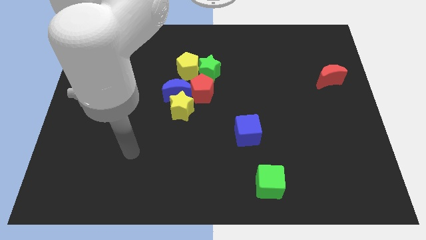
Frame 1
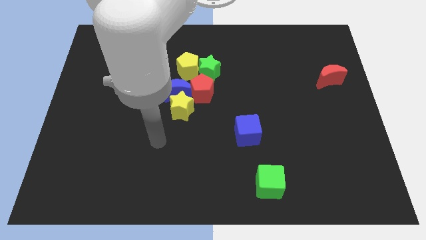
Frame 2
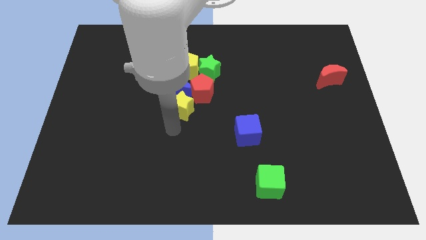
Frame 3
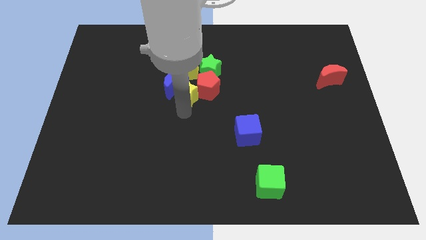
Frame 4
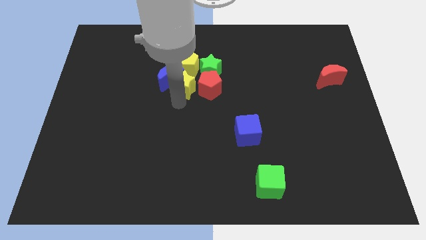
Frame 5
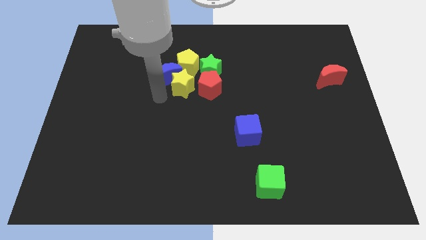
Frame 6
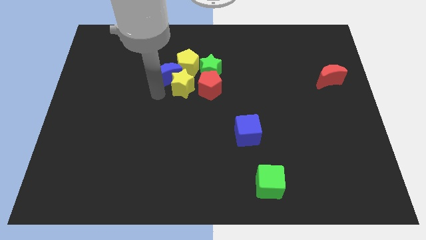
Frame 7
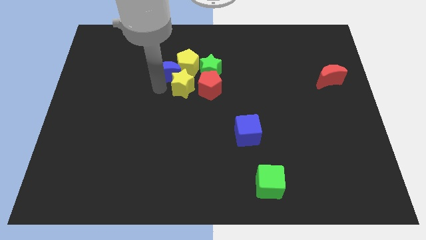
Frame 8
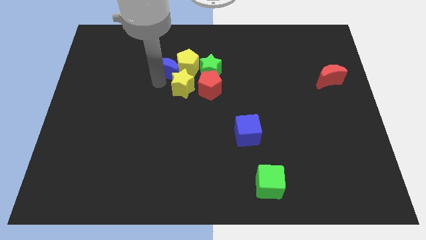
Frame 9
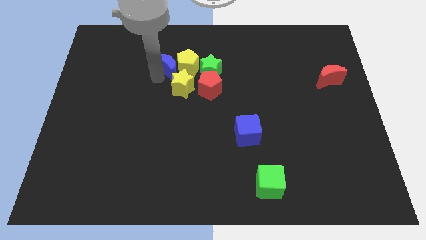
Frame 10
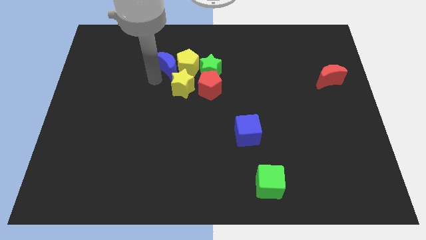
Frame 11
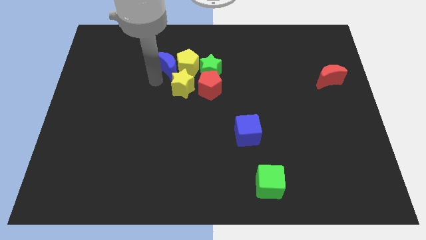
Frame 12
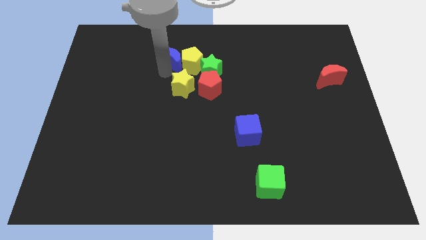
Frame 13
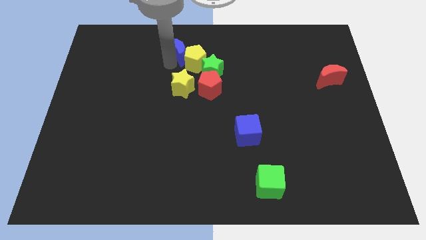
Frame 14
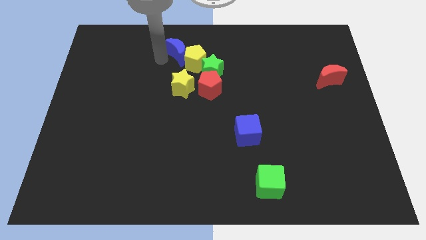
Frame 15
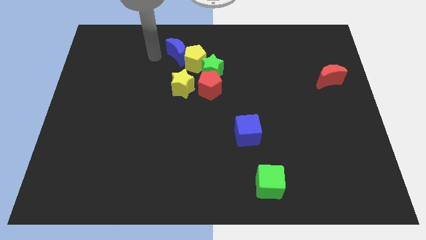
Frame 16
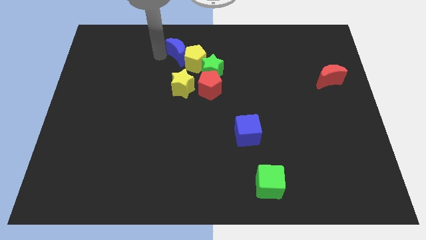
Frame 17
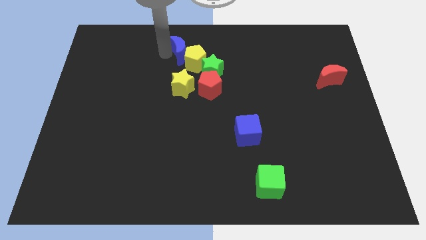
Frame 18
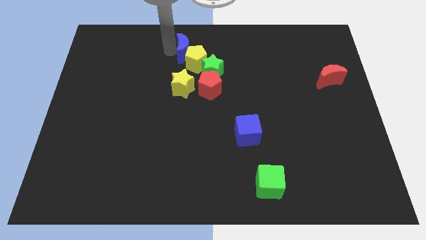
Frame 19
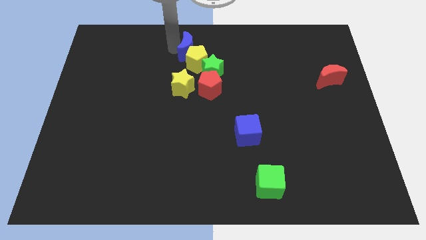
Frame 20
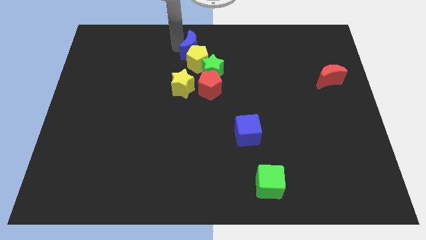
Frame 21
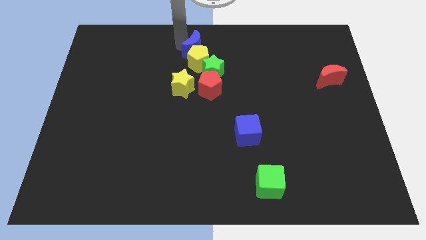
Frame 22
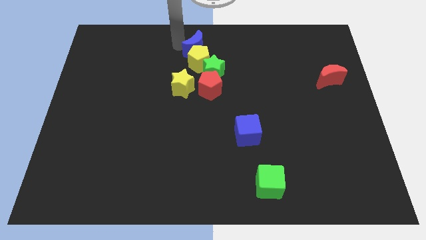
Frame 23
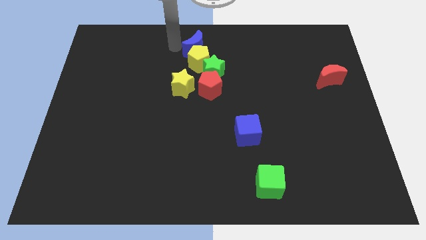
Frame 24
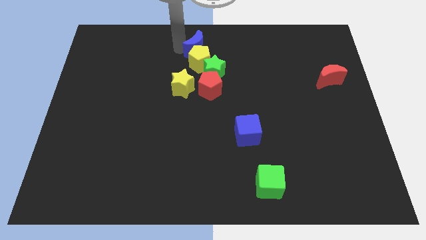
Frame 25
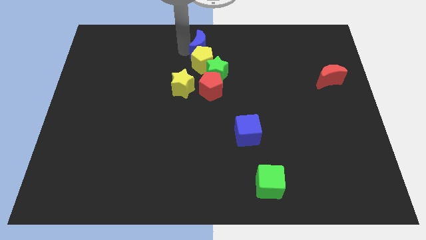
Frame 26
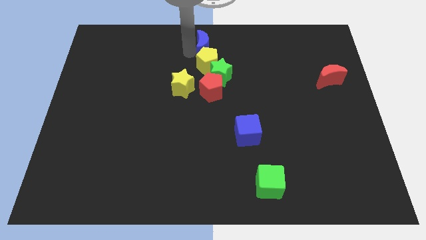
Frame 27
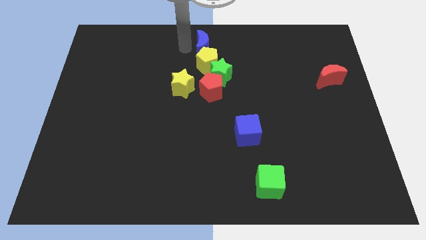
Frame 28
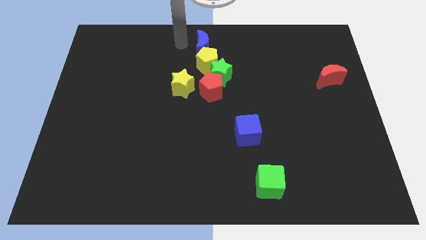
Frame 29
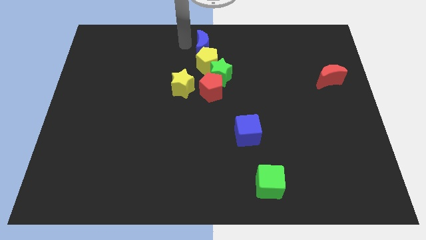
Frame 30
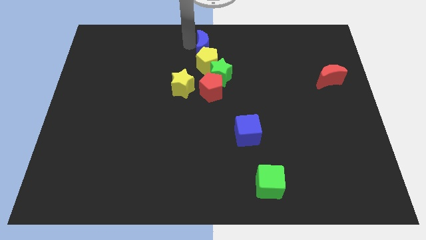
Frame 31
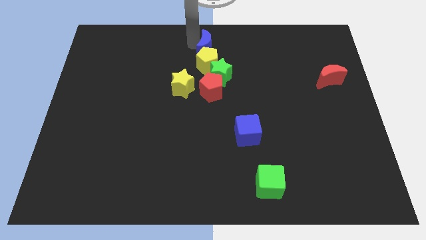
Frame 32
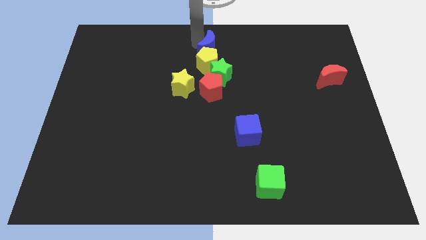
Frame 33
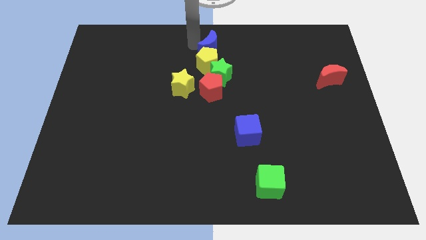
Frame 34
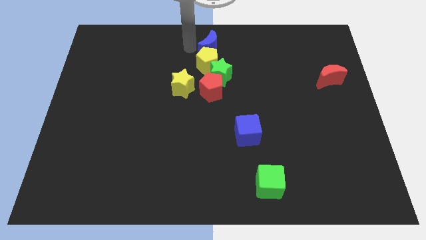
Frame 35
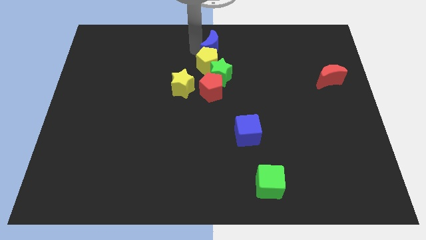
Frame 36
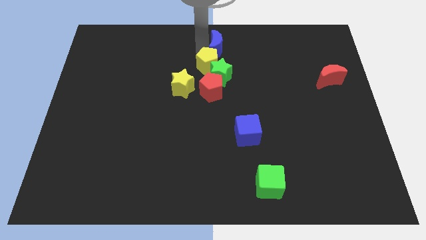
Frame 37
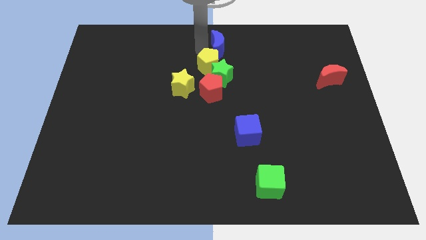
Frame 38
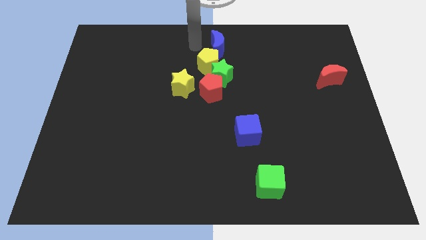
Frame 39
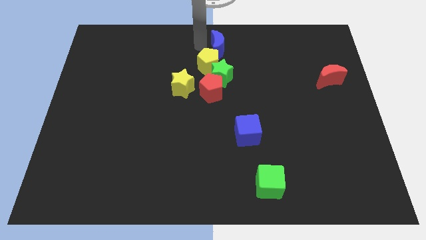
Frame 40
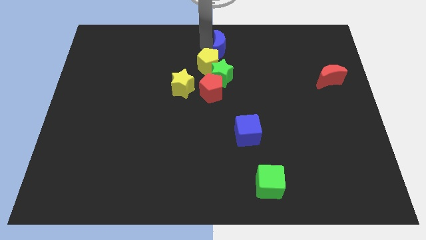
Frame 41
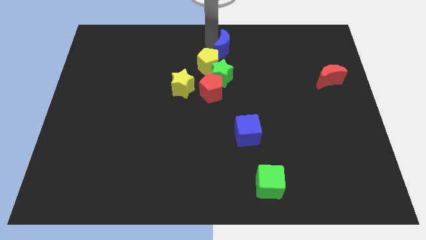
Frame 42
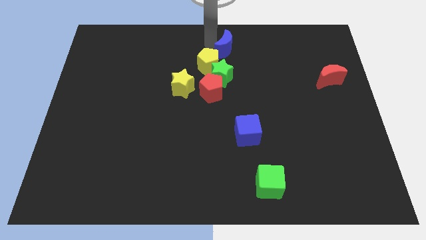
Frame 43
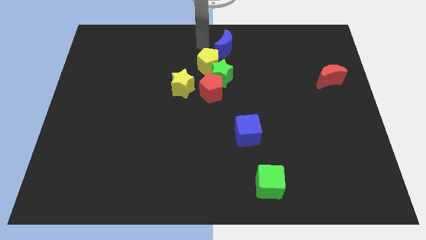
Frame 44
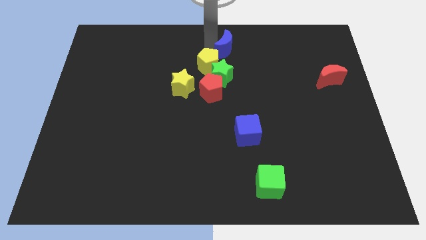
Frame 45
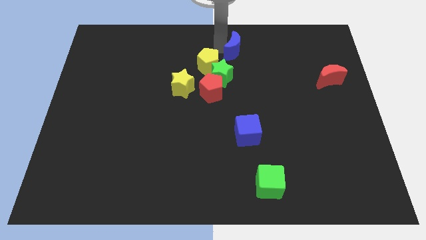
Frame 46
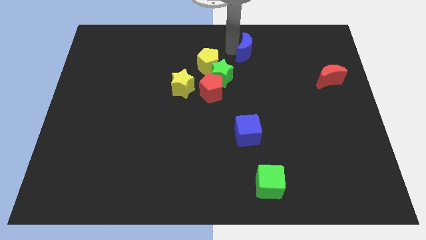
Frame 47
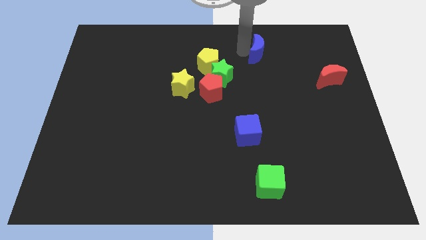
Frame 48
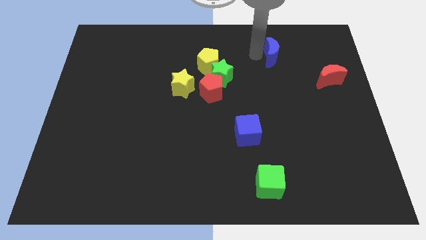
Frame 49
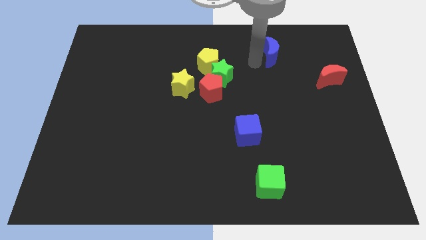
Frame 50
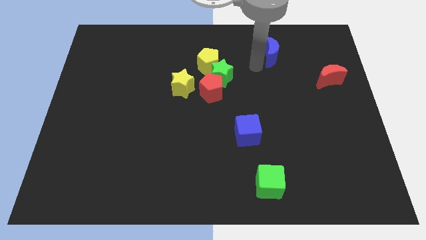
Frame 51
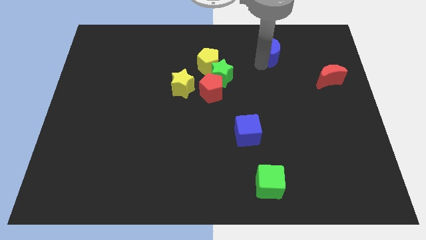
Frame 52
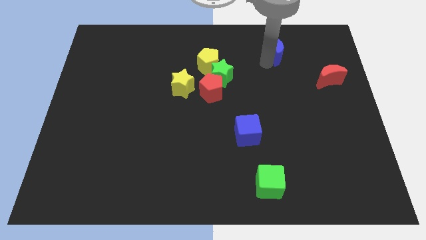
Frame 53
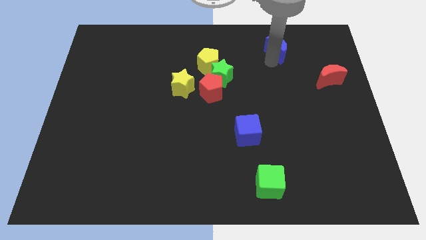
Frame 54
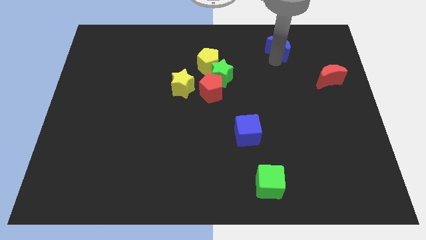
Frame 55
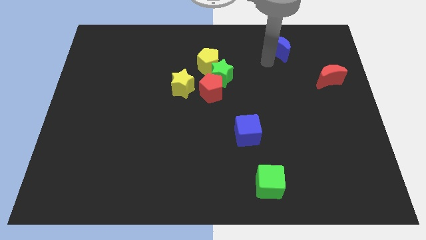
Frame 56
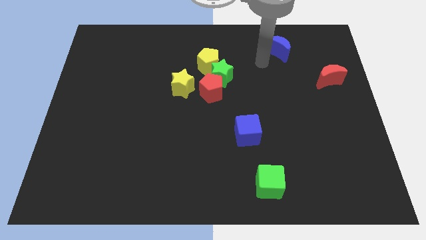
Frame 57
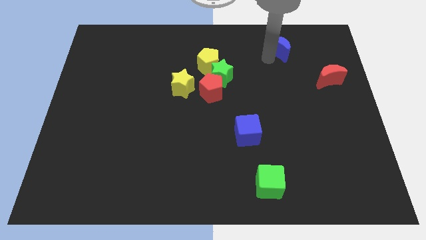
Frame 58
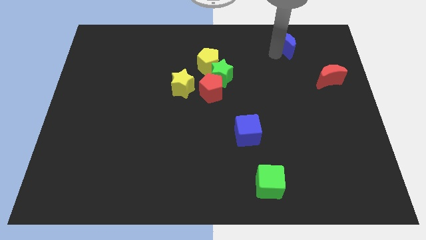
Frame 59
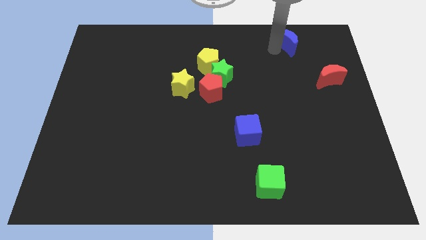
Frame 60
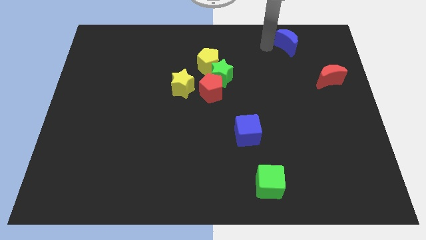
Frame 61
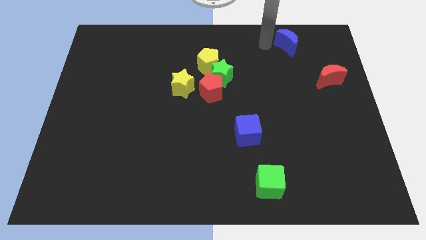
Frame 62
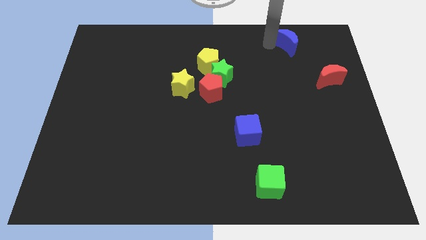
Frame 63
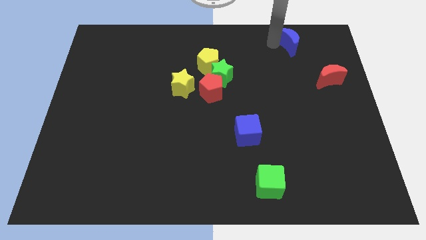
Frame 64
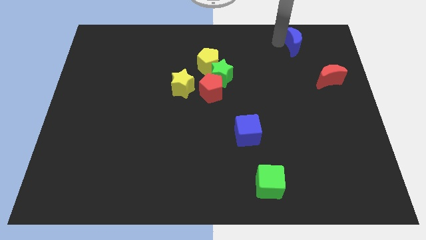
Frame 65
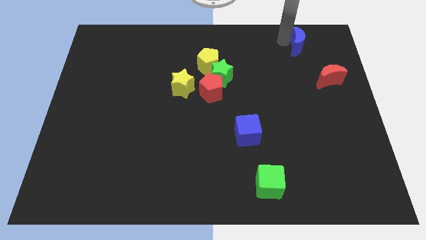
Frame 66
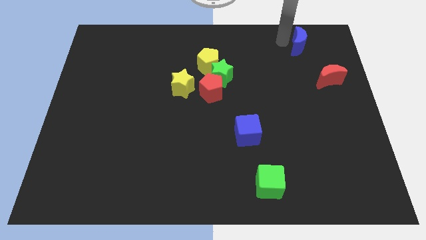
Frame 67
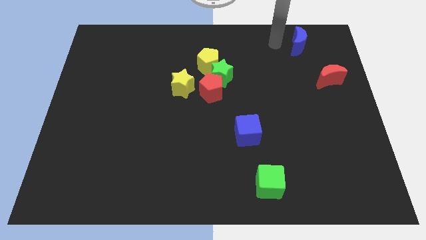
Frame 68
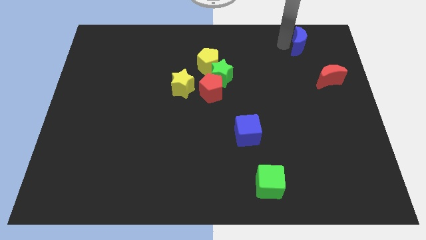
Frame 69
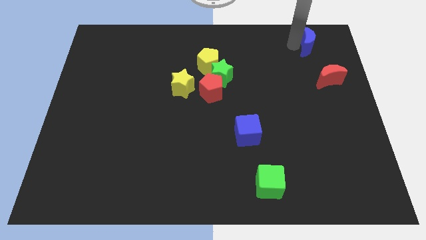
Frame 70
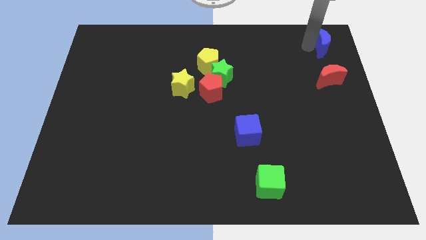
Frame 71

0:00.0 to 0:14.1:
put the blue moon to the upper right corner
